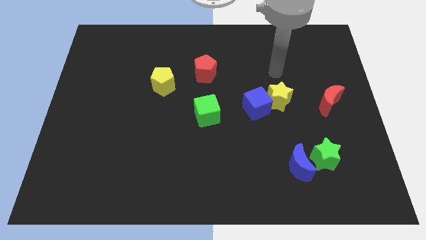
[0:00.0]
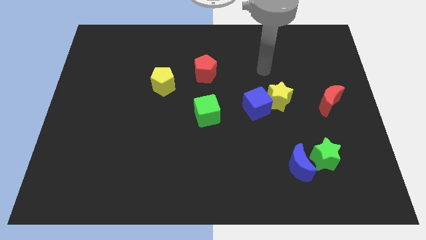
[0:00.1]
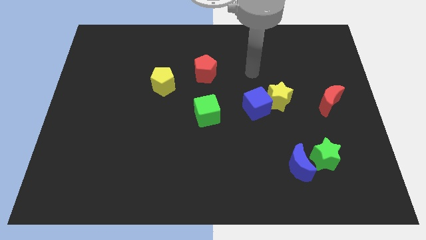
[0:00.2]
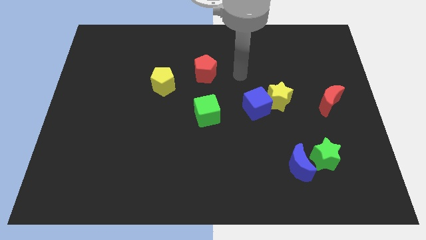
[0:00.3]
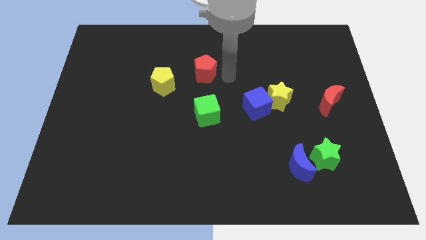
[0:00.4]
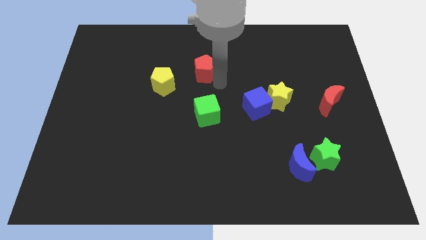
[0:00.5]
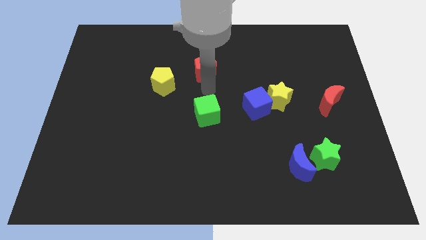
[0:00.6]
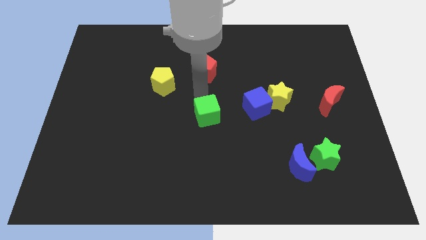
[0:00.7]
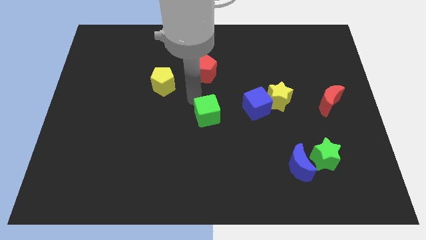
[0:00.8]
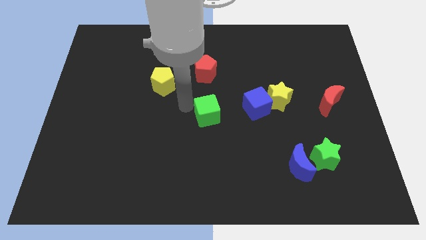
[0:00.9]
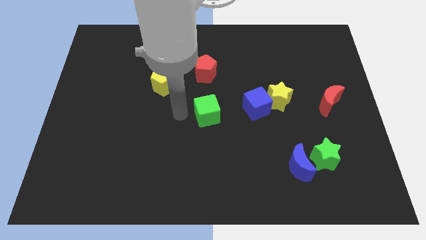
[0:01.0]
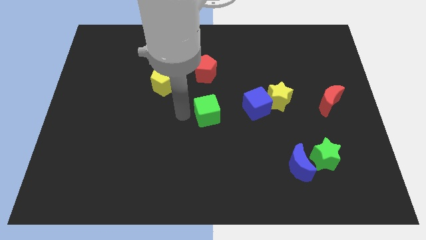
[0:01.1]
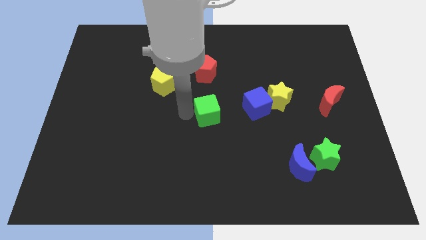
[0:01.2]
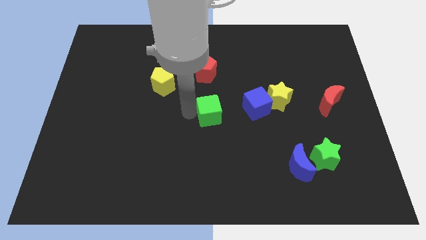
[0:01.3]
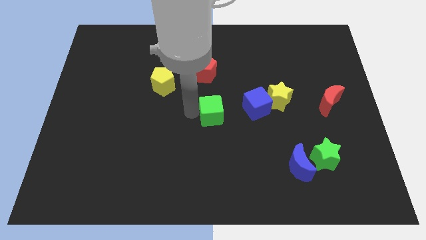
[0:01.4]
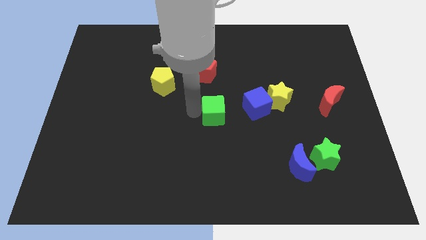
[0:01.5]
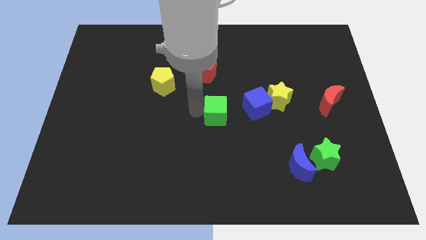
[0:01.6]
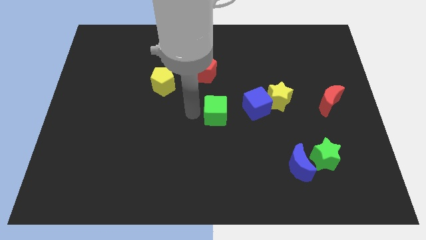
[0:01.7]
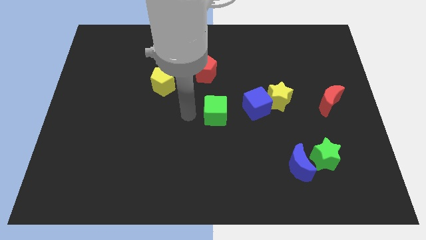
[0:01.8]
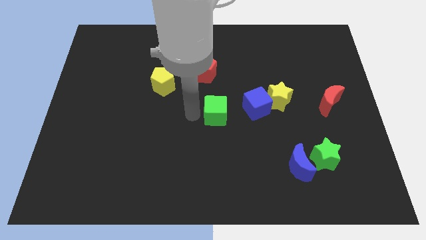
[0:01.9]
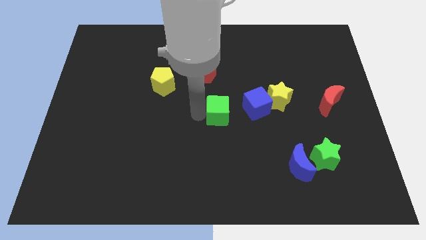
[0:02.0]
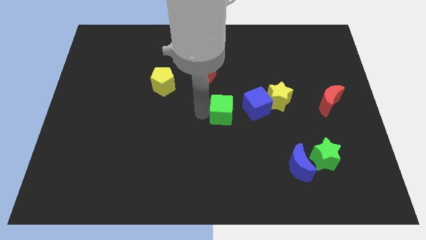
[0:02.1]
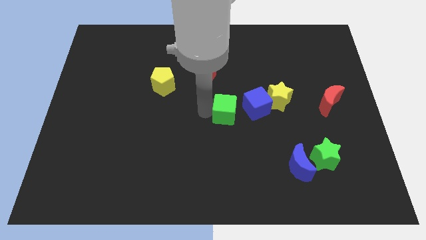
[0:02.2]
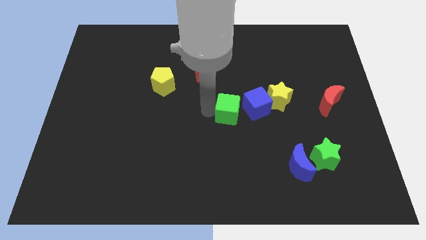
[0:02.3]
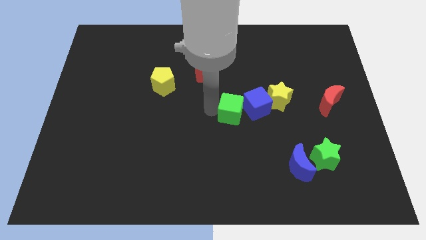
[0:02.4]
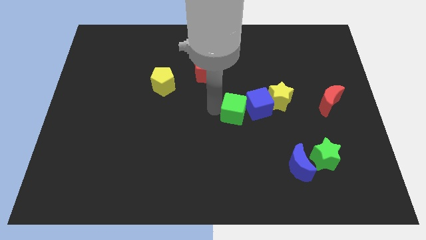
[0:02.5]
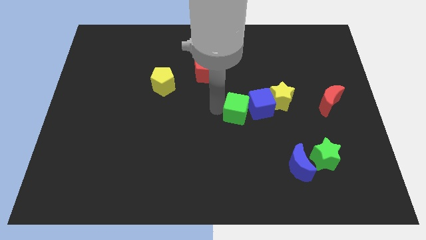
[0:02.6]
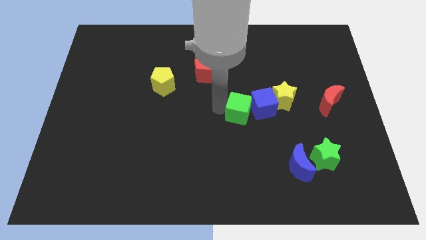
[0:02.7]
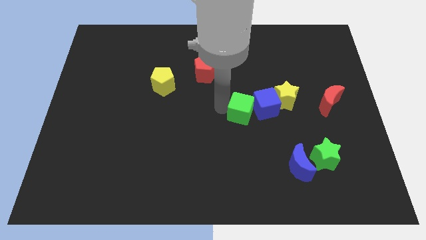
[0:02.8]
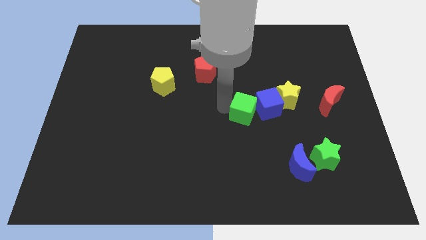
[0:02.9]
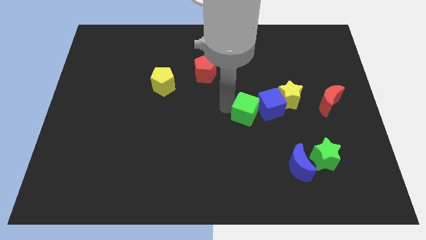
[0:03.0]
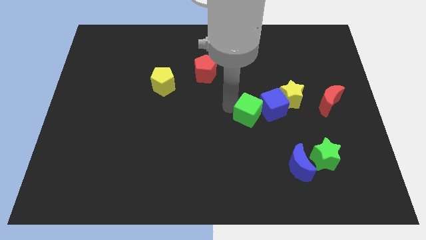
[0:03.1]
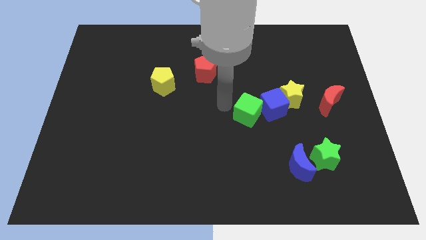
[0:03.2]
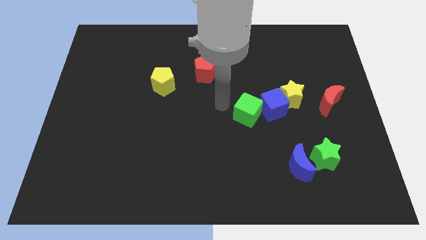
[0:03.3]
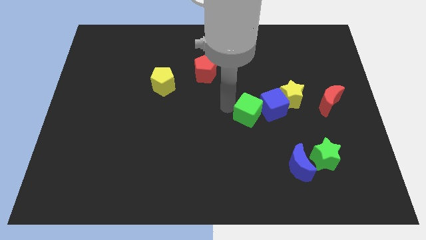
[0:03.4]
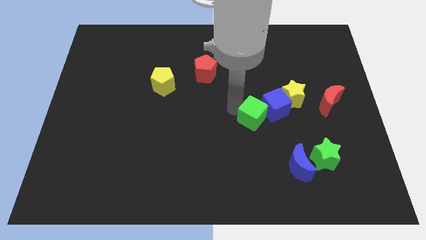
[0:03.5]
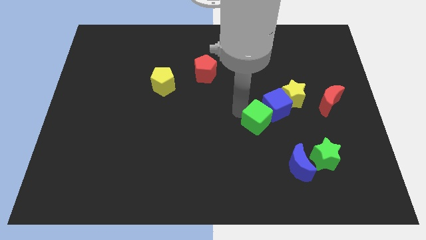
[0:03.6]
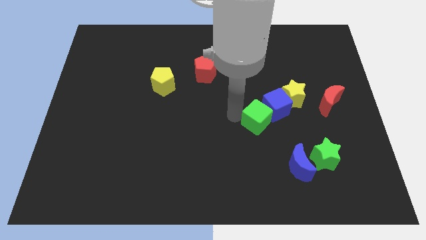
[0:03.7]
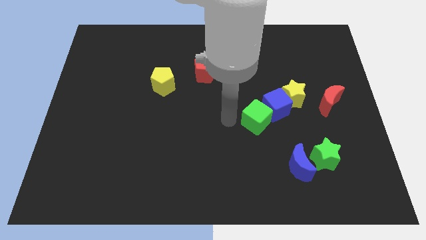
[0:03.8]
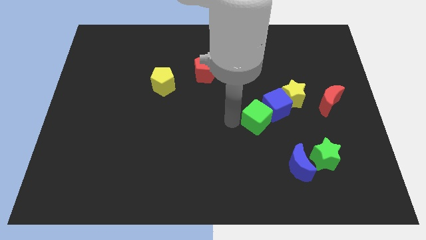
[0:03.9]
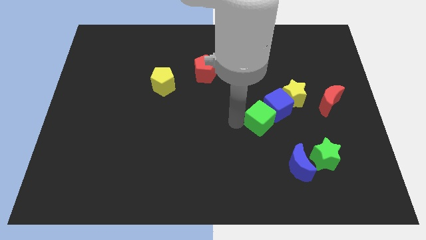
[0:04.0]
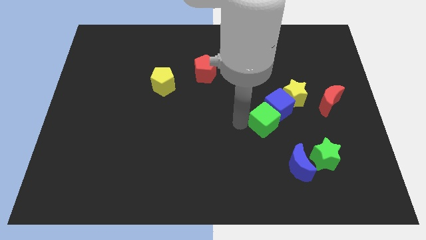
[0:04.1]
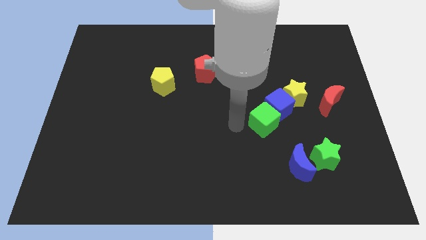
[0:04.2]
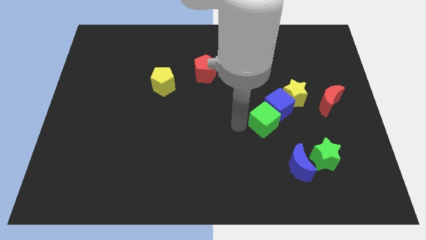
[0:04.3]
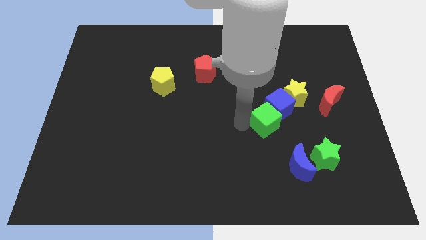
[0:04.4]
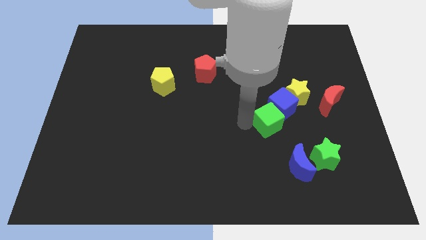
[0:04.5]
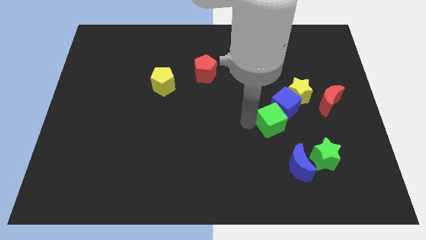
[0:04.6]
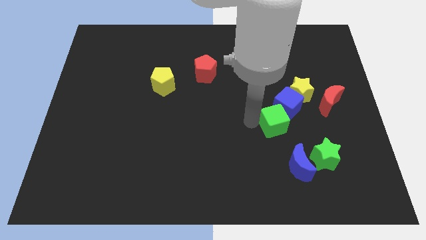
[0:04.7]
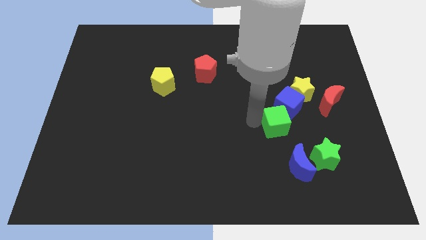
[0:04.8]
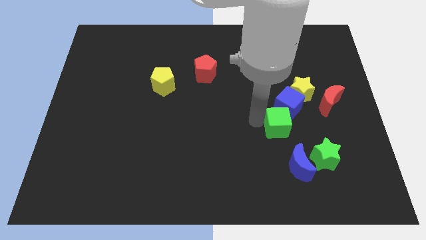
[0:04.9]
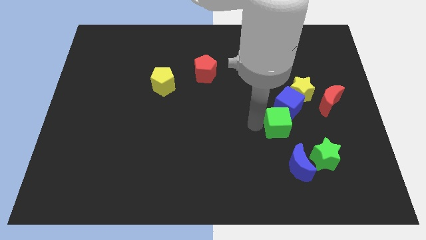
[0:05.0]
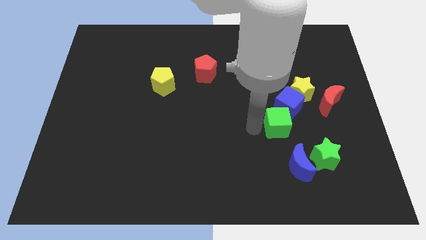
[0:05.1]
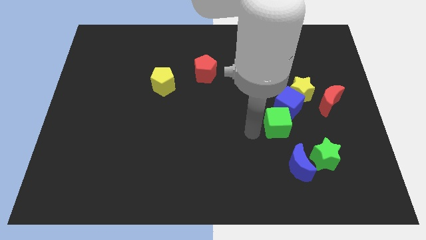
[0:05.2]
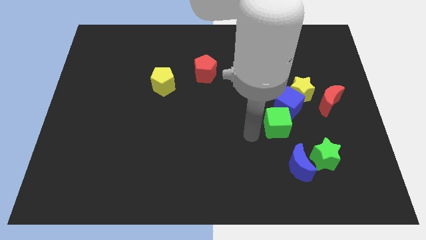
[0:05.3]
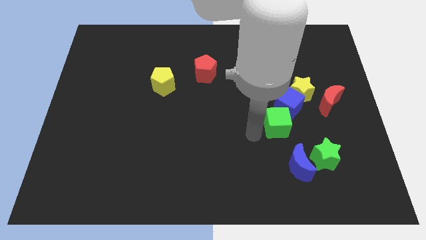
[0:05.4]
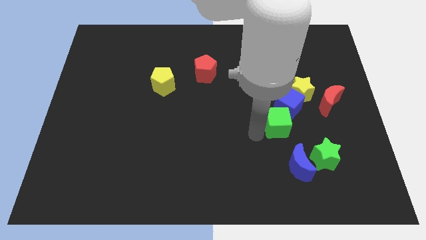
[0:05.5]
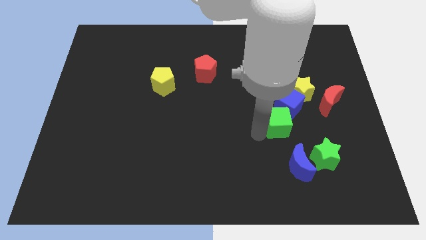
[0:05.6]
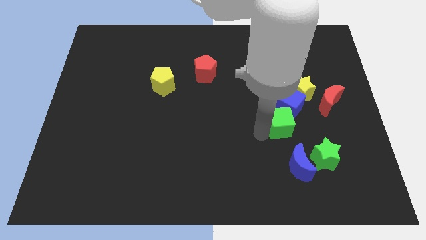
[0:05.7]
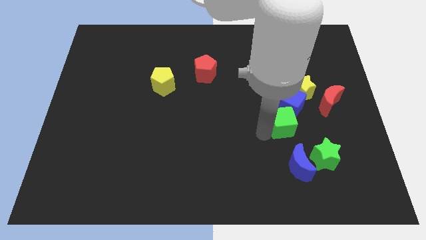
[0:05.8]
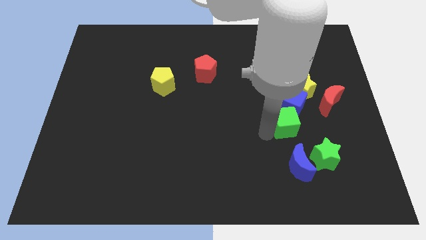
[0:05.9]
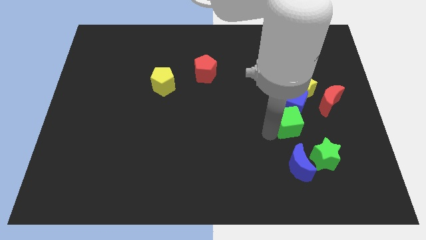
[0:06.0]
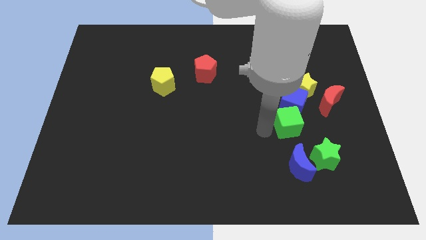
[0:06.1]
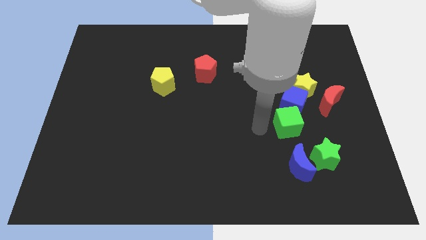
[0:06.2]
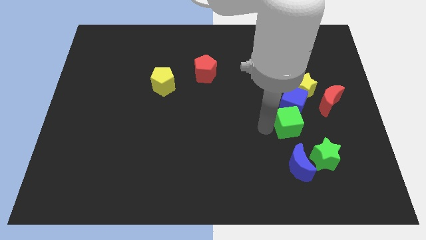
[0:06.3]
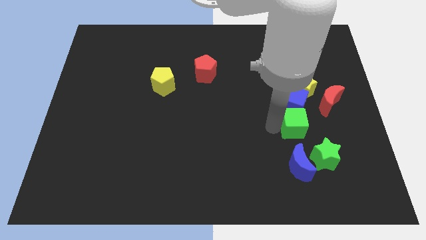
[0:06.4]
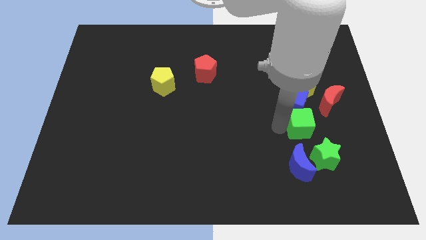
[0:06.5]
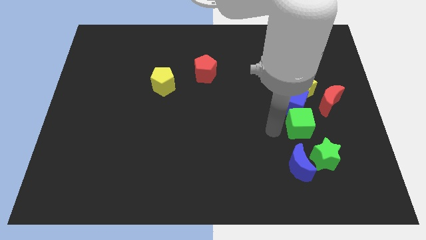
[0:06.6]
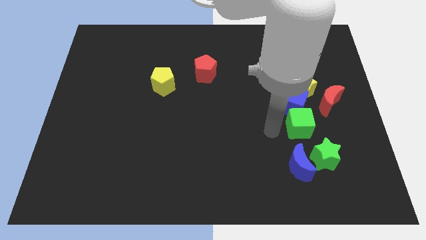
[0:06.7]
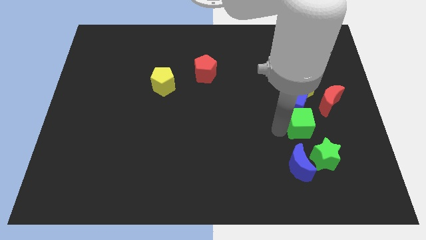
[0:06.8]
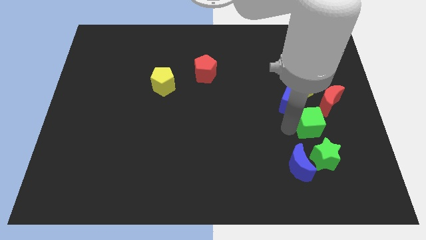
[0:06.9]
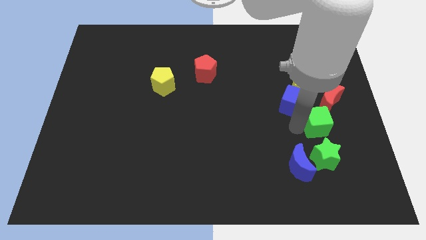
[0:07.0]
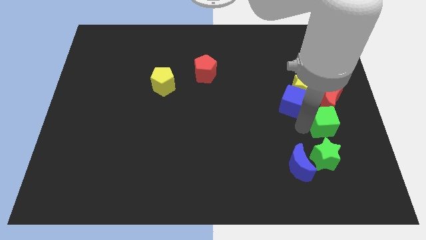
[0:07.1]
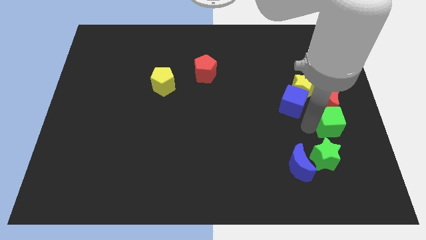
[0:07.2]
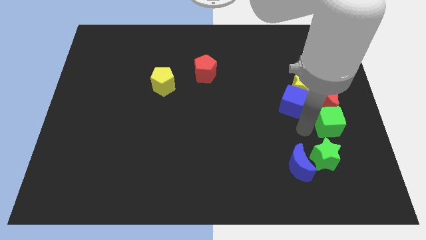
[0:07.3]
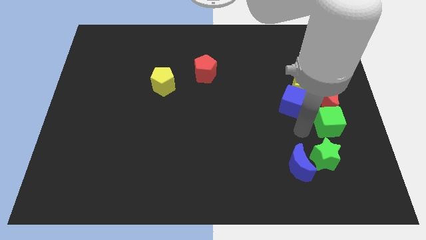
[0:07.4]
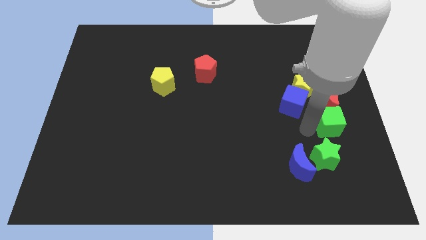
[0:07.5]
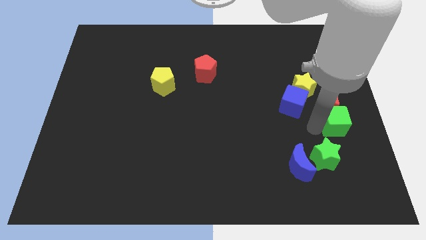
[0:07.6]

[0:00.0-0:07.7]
slide the green cube to the right side
